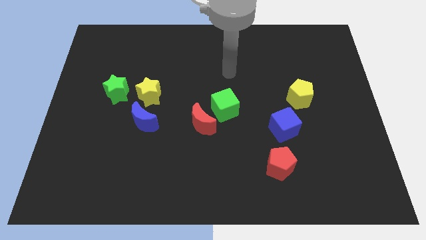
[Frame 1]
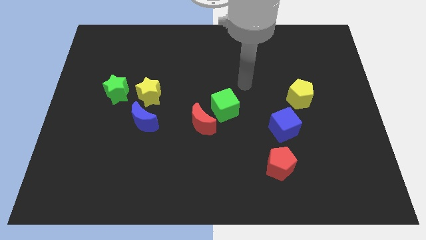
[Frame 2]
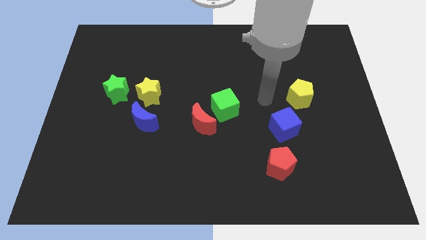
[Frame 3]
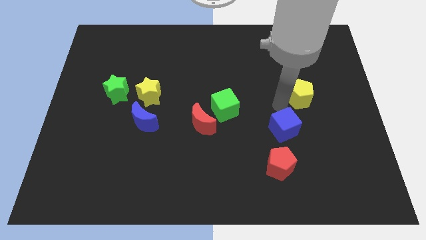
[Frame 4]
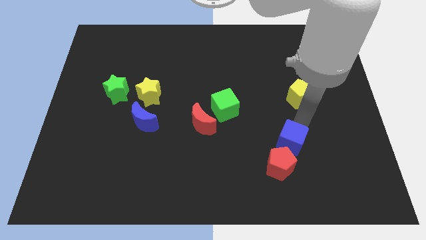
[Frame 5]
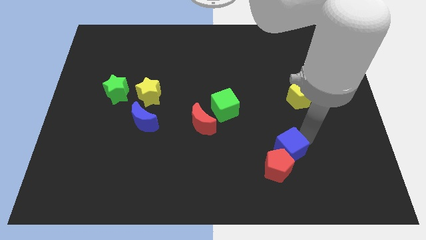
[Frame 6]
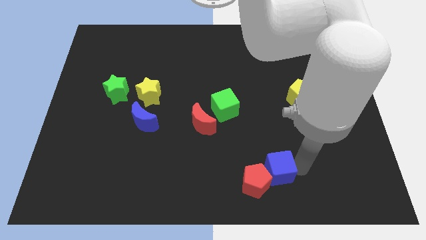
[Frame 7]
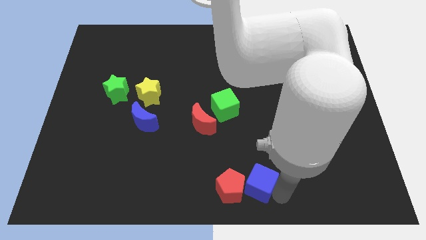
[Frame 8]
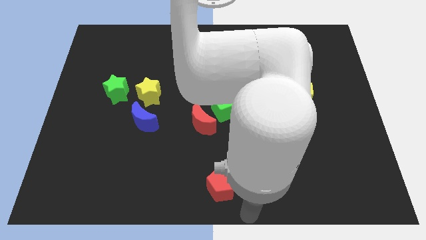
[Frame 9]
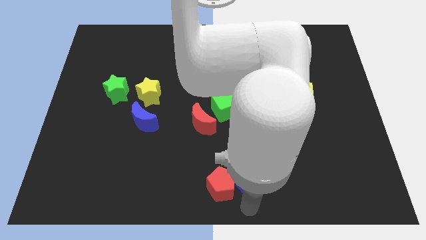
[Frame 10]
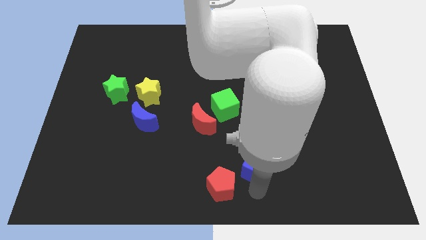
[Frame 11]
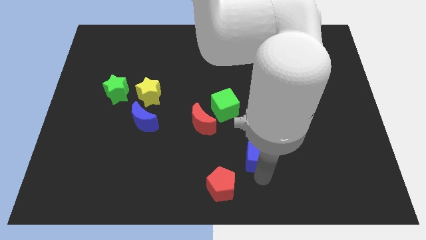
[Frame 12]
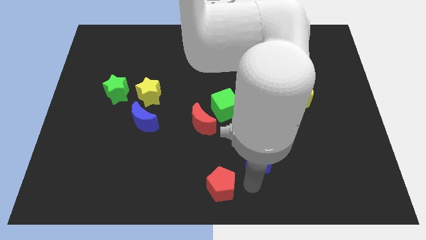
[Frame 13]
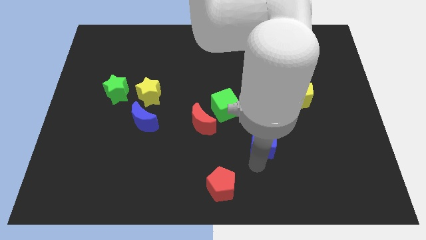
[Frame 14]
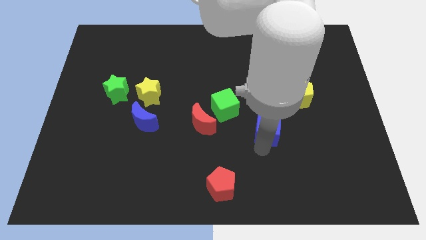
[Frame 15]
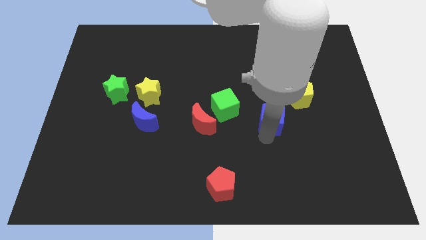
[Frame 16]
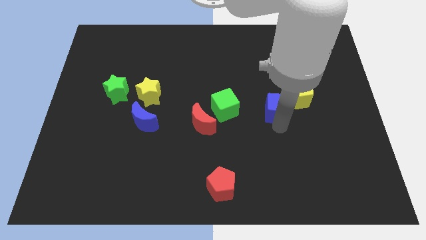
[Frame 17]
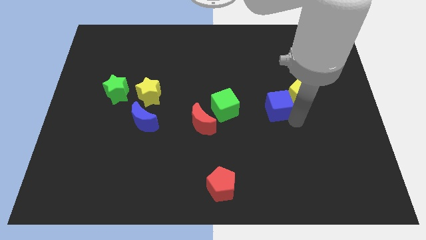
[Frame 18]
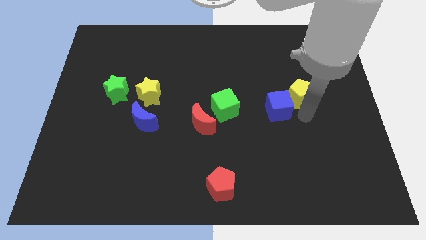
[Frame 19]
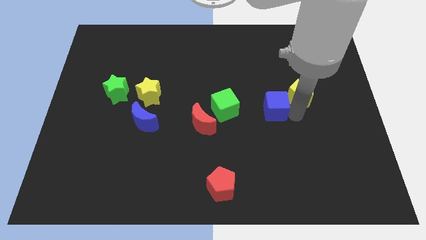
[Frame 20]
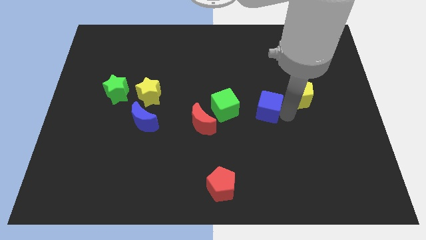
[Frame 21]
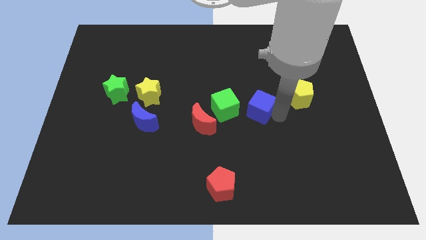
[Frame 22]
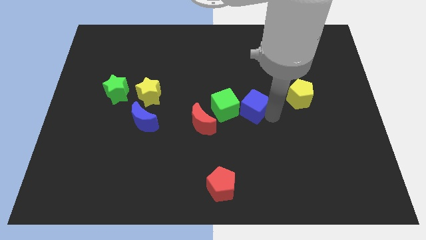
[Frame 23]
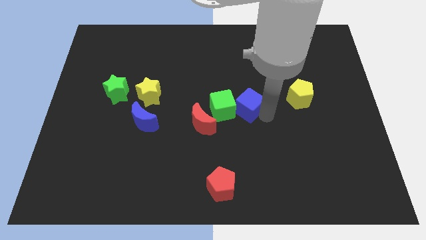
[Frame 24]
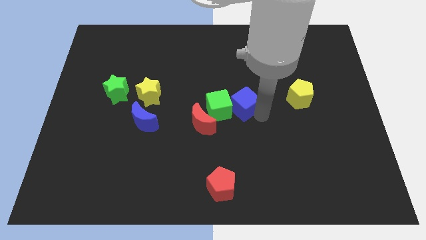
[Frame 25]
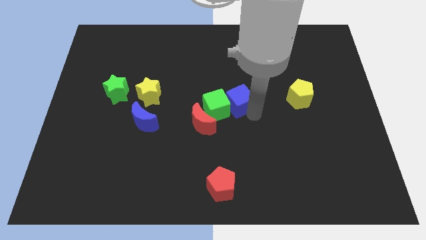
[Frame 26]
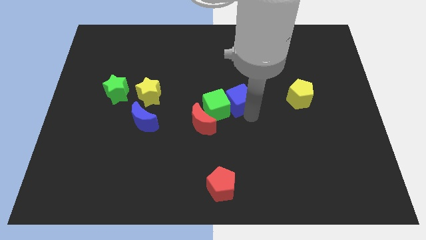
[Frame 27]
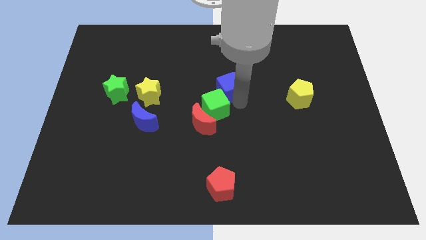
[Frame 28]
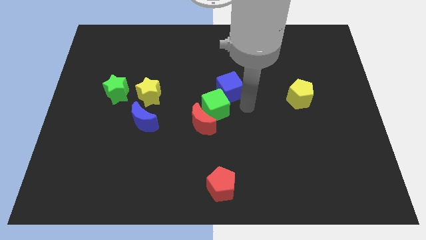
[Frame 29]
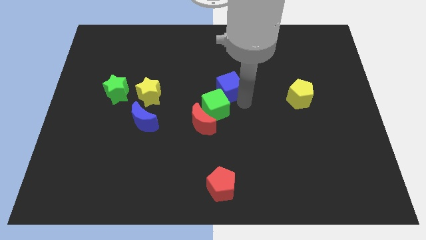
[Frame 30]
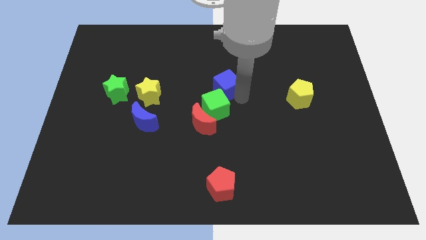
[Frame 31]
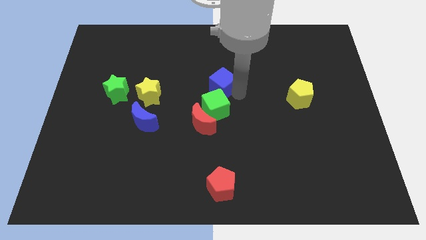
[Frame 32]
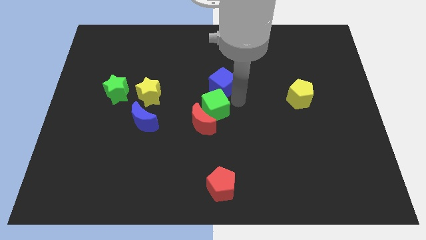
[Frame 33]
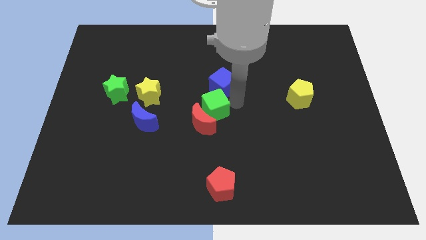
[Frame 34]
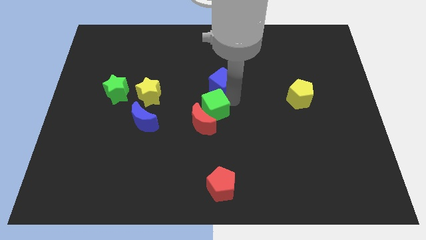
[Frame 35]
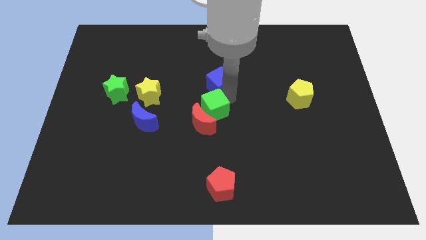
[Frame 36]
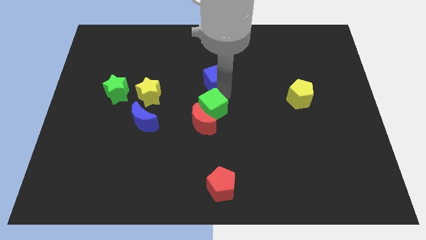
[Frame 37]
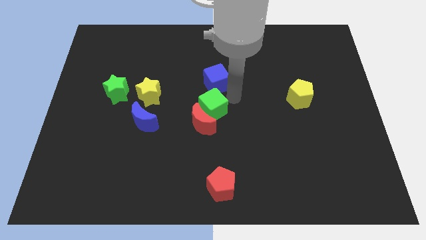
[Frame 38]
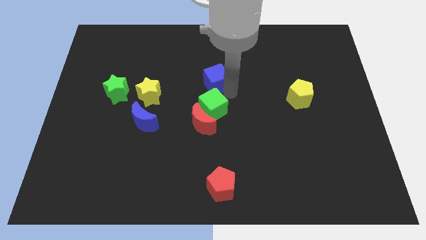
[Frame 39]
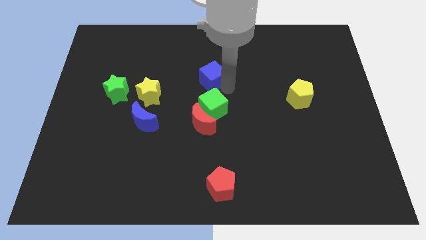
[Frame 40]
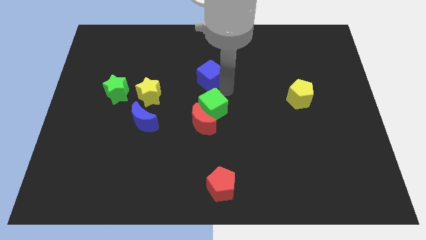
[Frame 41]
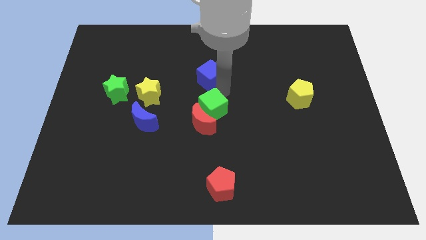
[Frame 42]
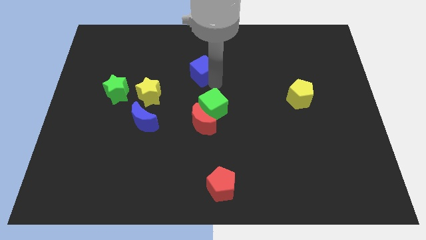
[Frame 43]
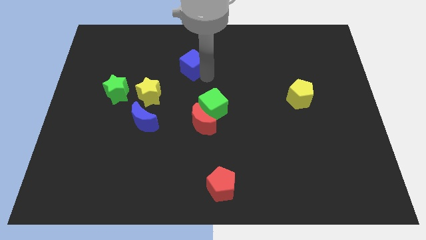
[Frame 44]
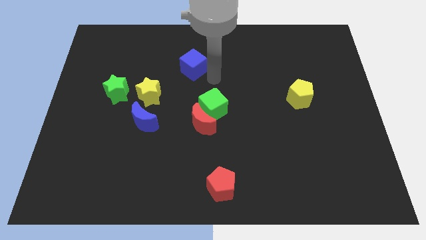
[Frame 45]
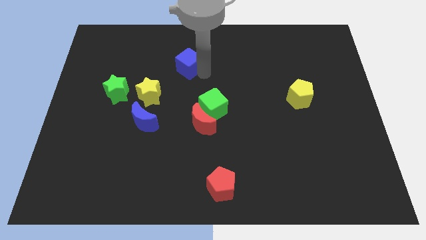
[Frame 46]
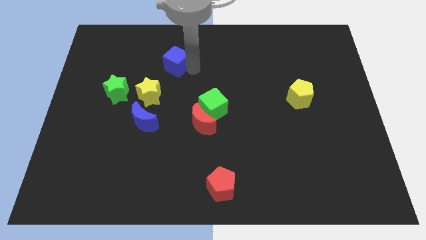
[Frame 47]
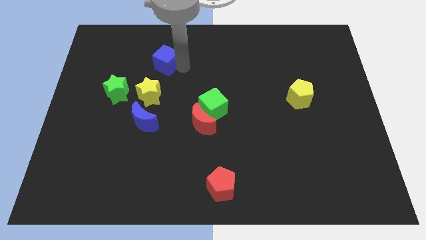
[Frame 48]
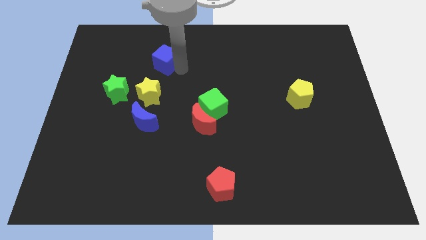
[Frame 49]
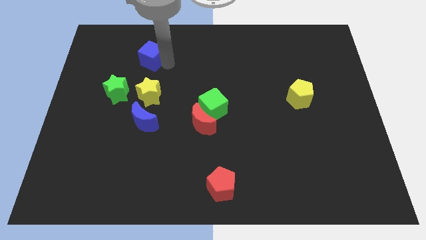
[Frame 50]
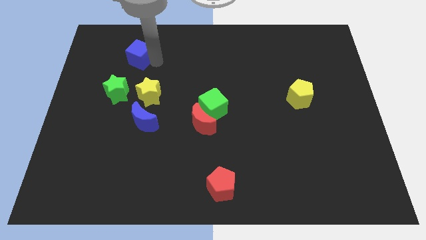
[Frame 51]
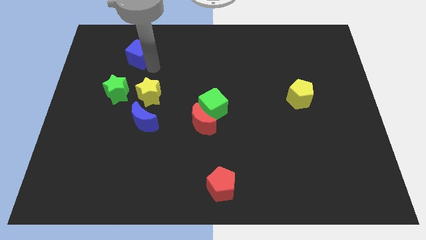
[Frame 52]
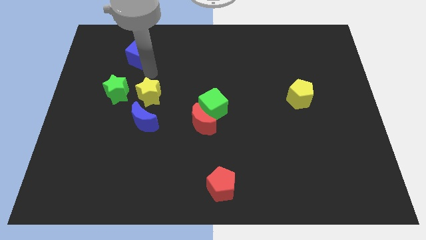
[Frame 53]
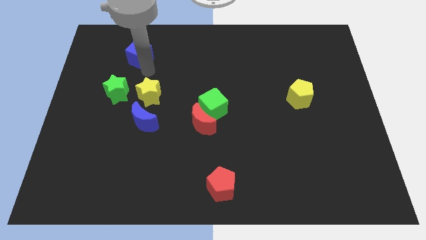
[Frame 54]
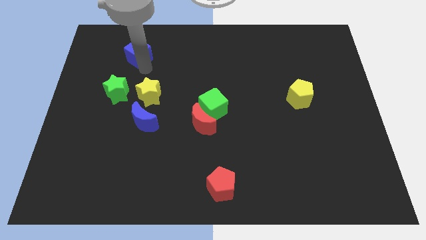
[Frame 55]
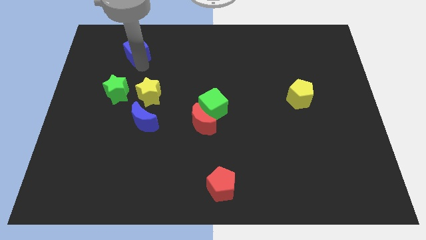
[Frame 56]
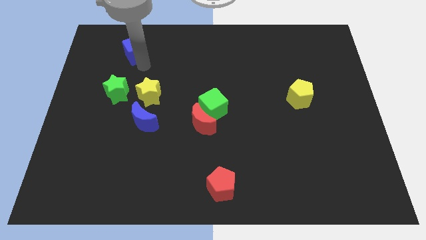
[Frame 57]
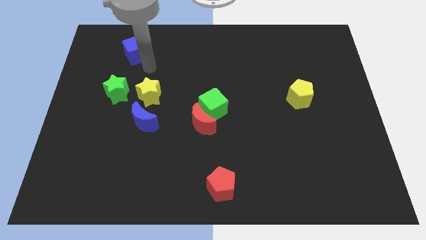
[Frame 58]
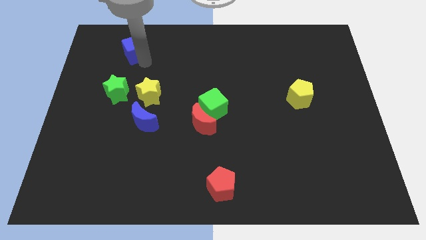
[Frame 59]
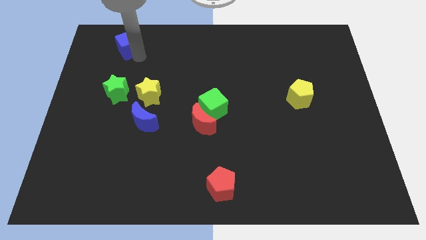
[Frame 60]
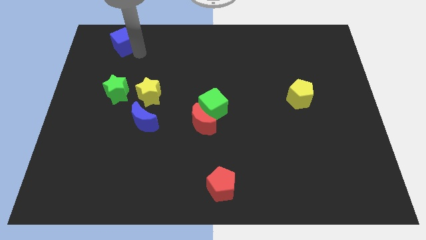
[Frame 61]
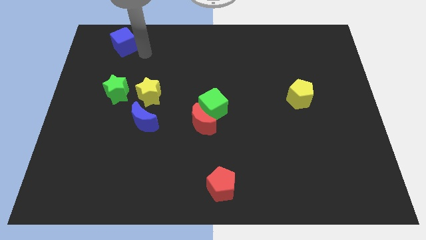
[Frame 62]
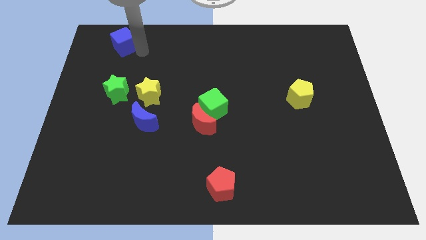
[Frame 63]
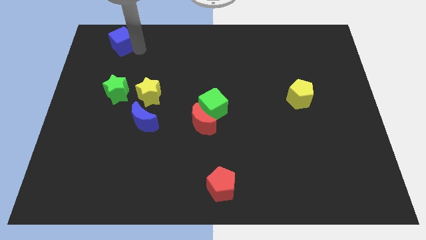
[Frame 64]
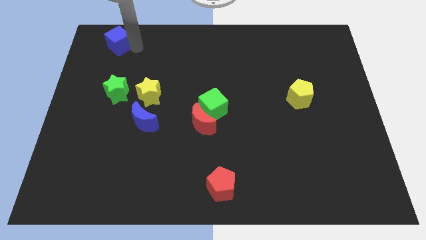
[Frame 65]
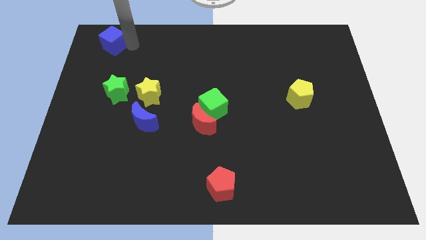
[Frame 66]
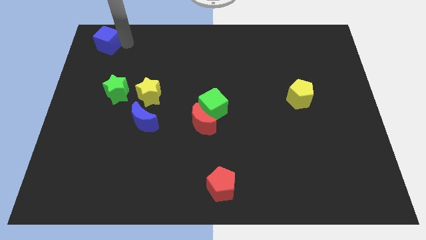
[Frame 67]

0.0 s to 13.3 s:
push the blue cube to the top left corner

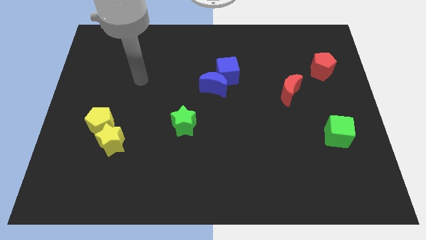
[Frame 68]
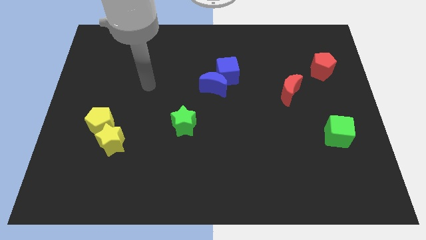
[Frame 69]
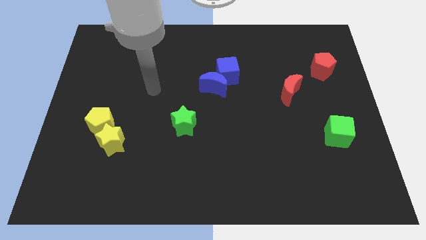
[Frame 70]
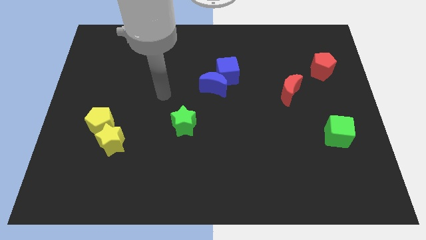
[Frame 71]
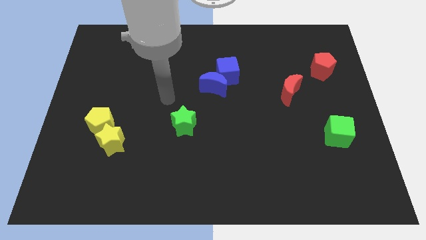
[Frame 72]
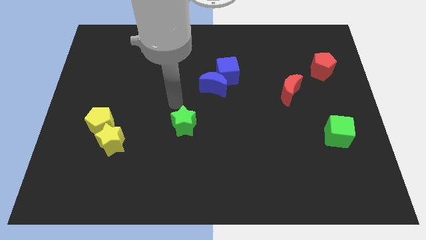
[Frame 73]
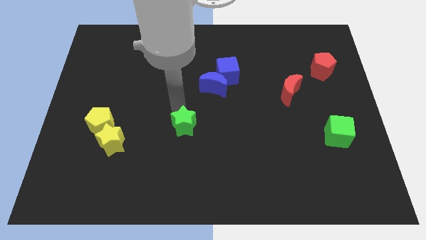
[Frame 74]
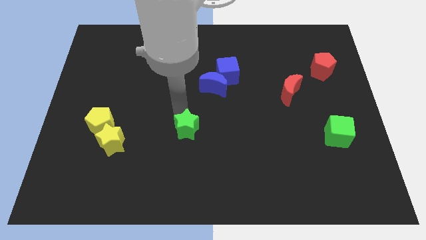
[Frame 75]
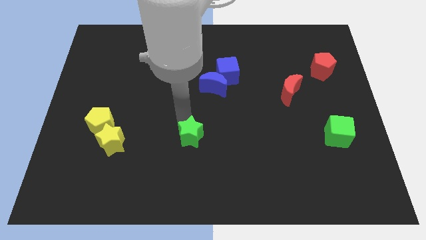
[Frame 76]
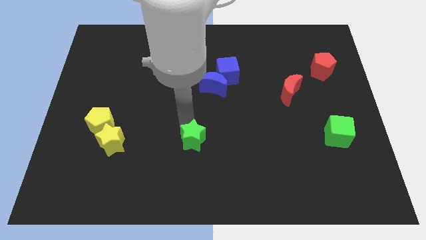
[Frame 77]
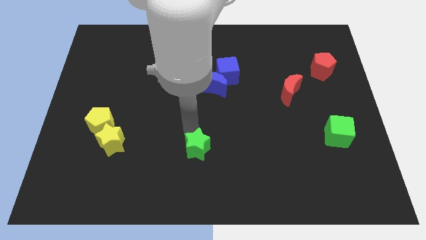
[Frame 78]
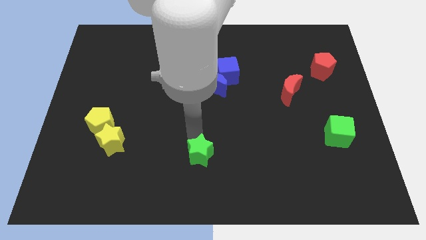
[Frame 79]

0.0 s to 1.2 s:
put the green star to the bottom side
